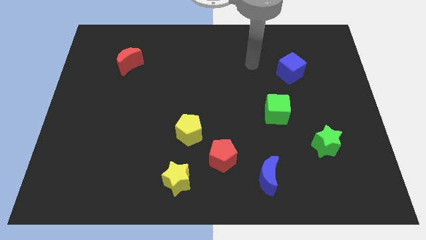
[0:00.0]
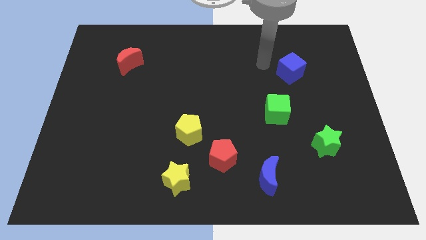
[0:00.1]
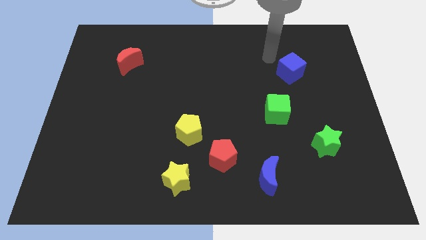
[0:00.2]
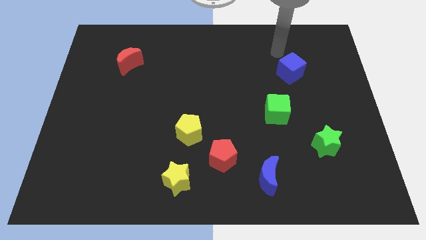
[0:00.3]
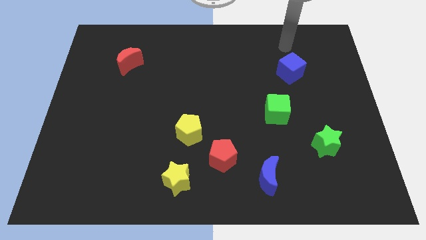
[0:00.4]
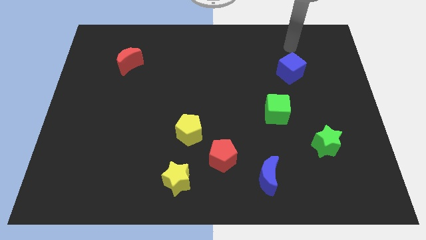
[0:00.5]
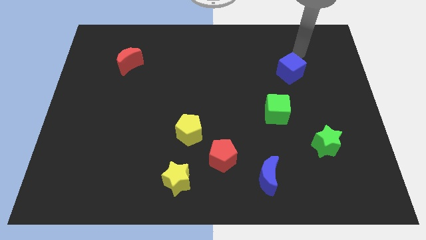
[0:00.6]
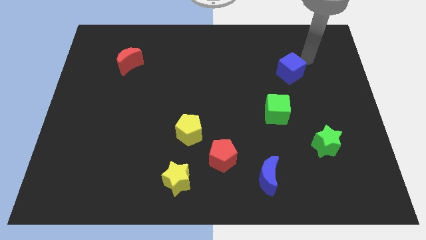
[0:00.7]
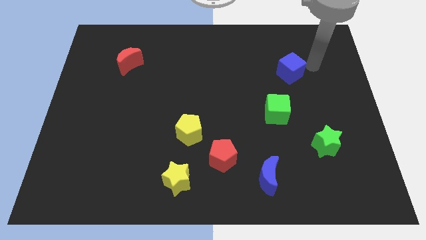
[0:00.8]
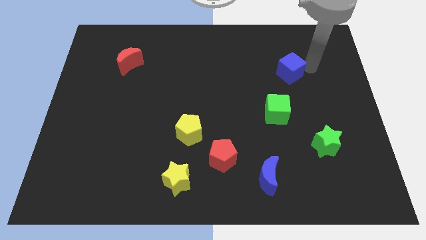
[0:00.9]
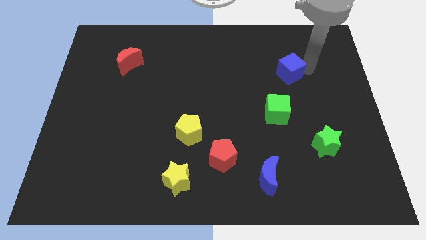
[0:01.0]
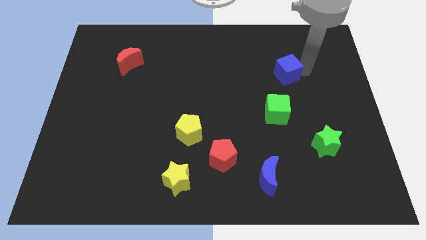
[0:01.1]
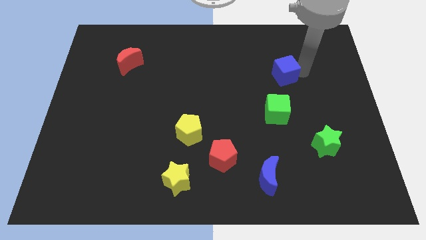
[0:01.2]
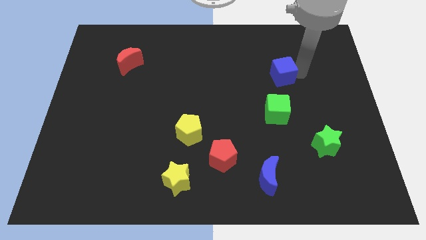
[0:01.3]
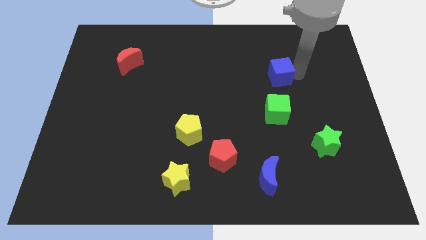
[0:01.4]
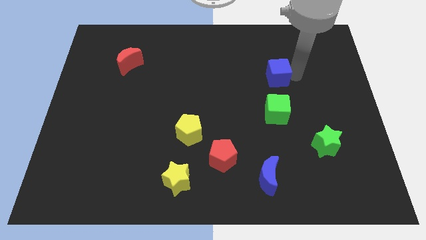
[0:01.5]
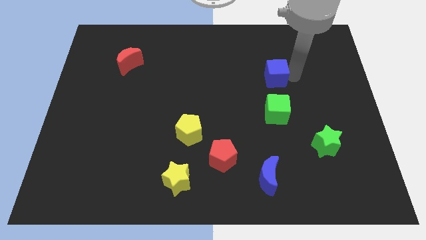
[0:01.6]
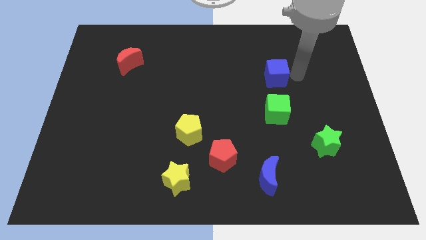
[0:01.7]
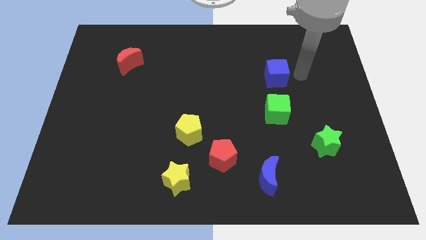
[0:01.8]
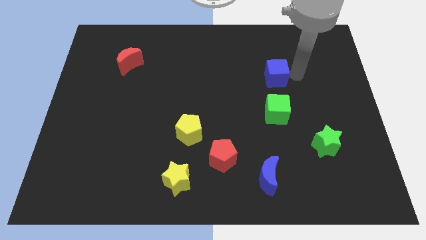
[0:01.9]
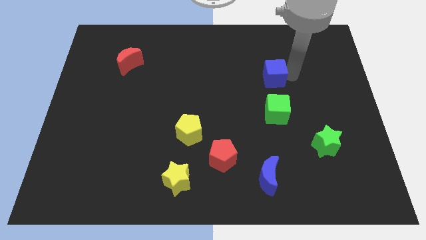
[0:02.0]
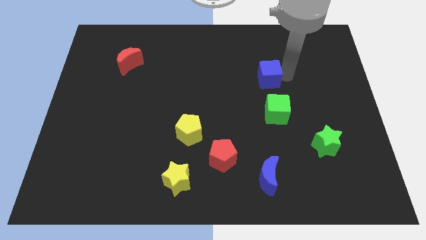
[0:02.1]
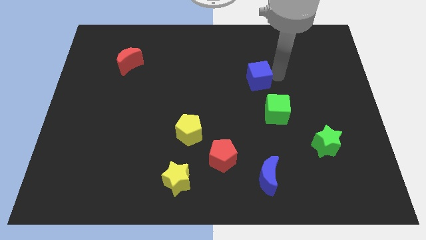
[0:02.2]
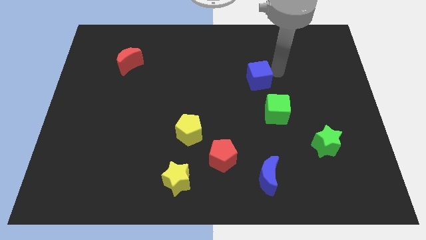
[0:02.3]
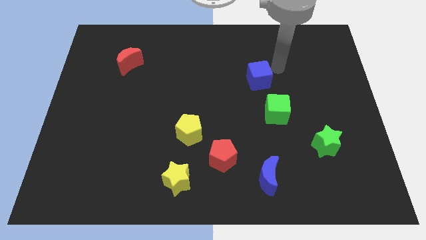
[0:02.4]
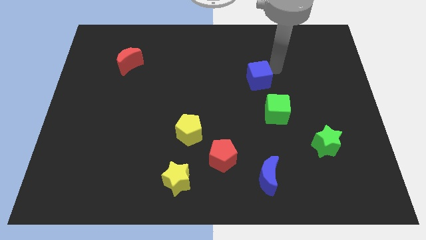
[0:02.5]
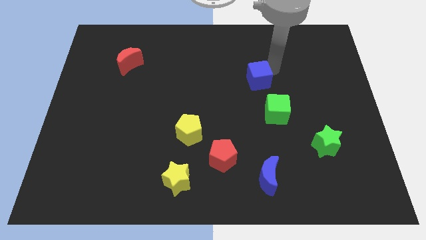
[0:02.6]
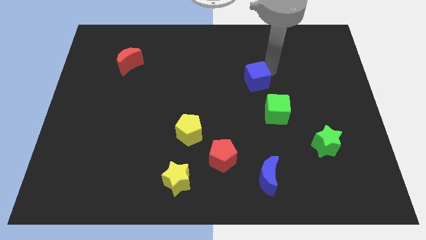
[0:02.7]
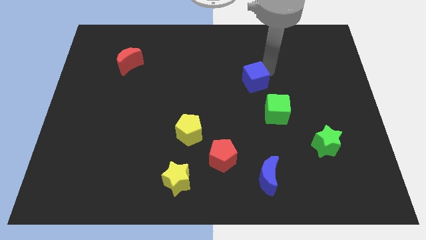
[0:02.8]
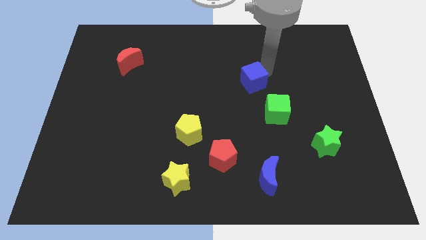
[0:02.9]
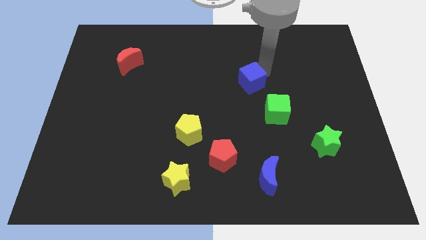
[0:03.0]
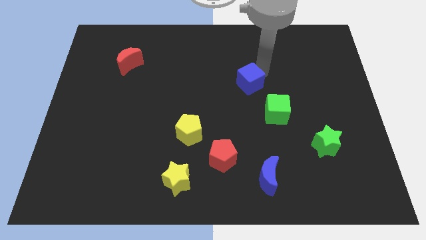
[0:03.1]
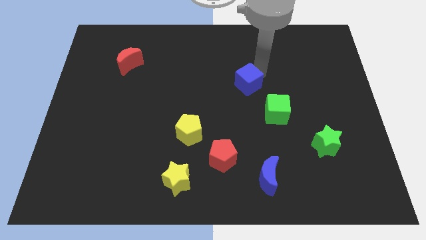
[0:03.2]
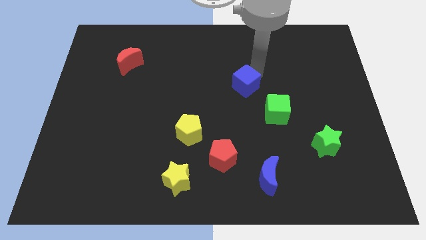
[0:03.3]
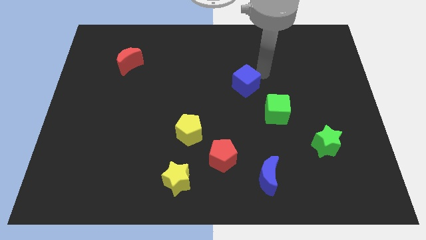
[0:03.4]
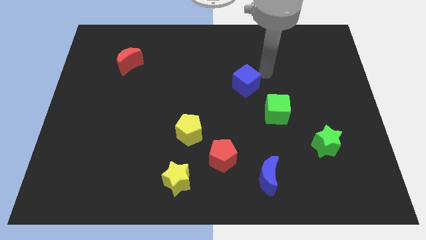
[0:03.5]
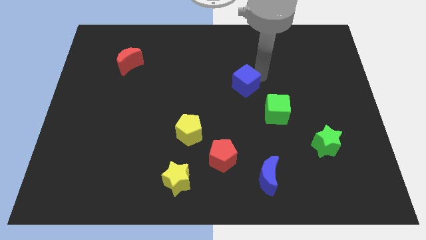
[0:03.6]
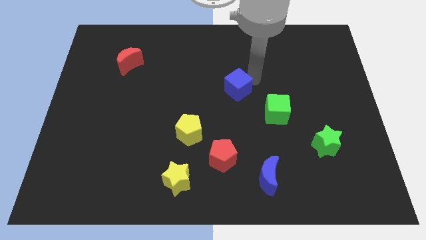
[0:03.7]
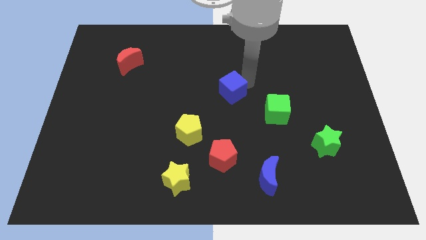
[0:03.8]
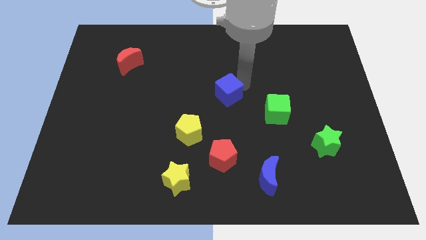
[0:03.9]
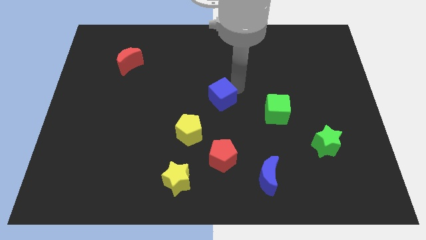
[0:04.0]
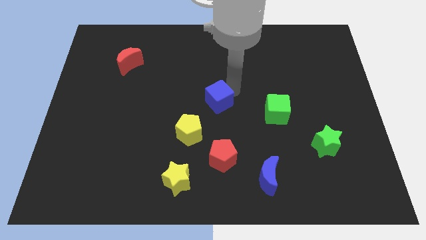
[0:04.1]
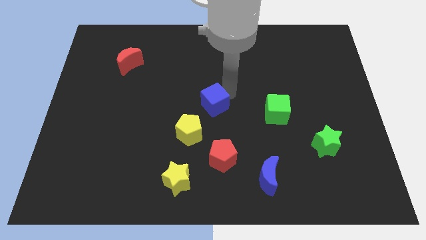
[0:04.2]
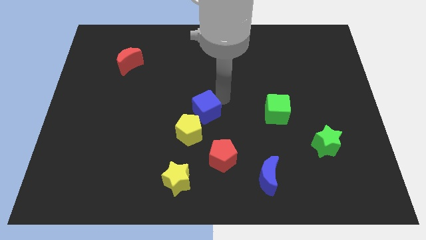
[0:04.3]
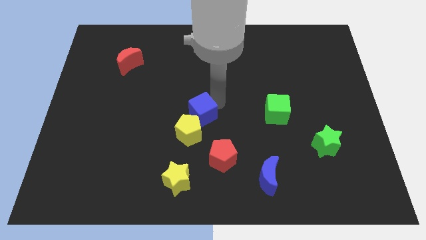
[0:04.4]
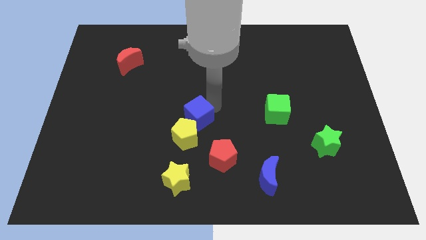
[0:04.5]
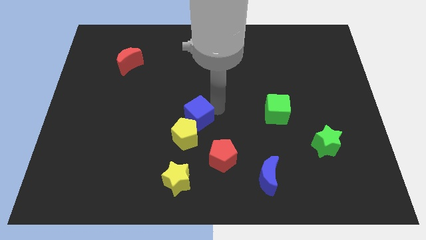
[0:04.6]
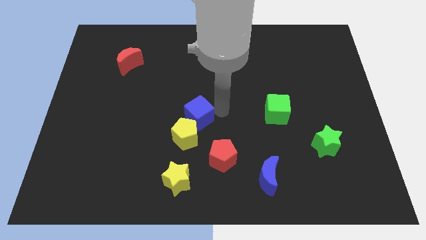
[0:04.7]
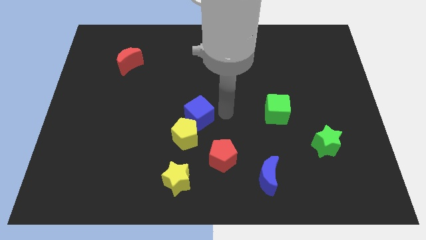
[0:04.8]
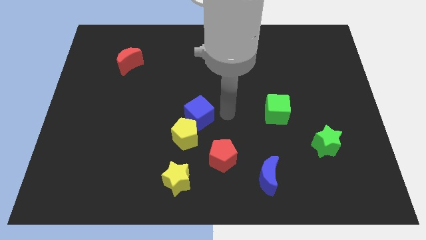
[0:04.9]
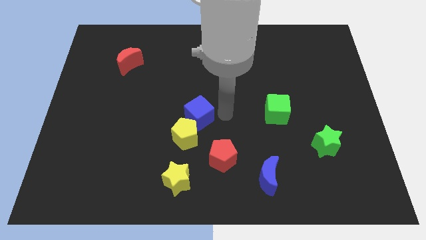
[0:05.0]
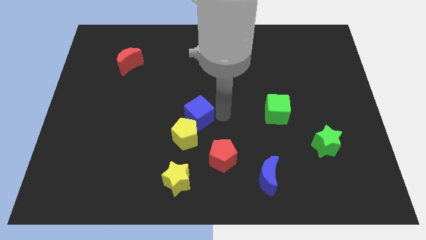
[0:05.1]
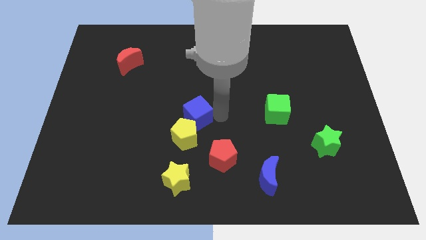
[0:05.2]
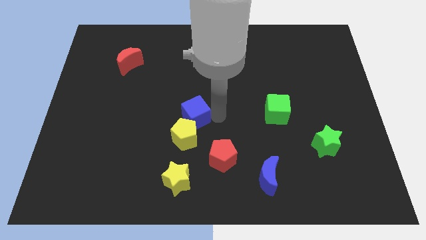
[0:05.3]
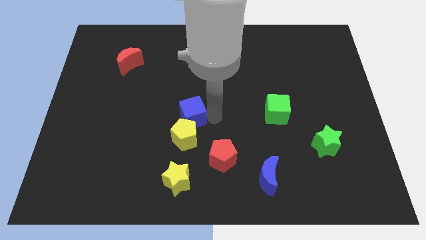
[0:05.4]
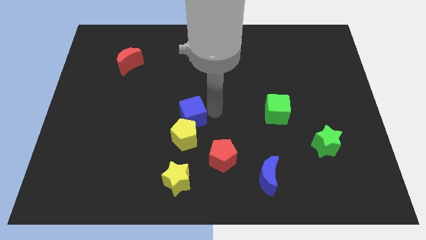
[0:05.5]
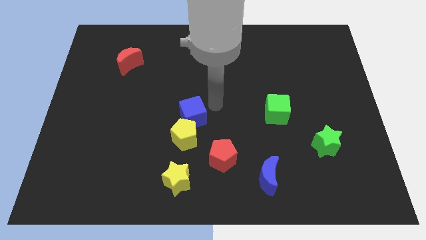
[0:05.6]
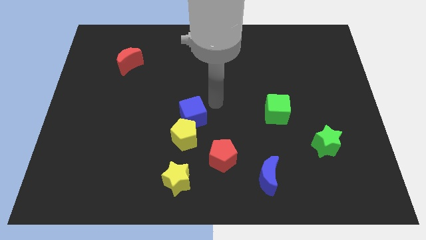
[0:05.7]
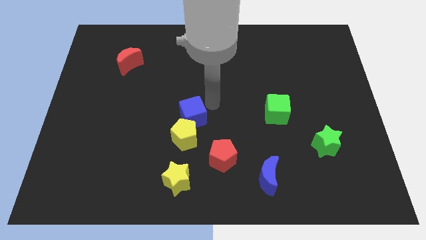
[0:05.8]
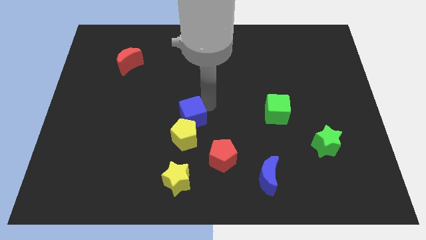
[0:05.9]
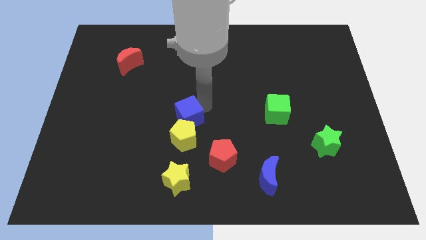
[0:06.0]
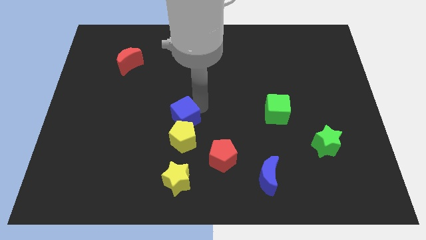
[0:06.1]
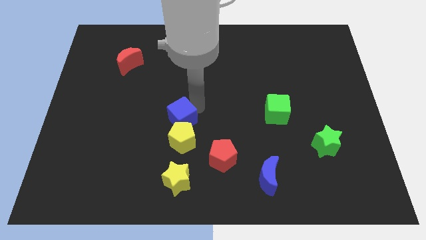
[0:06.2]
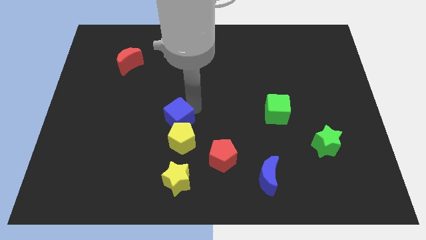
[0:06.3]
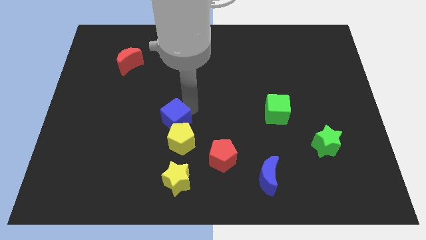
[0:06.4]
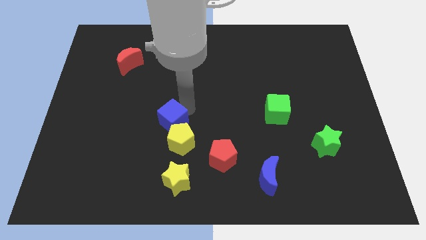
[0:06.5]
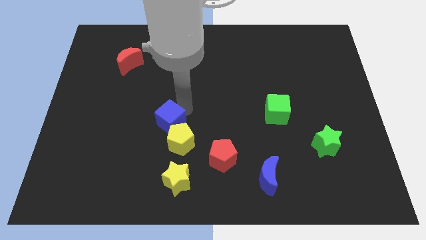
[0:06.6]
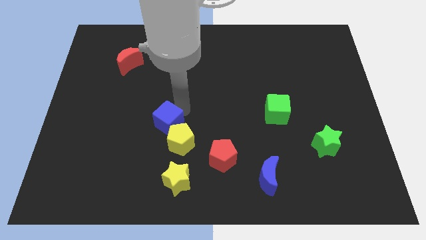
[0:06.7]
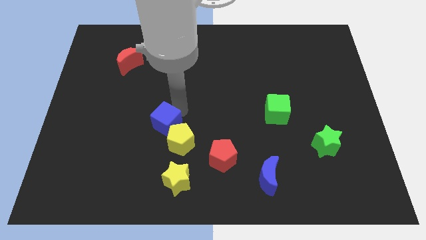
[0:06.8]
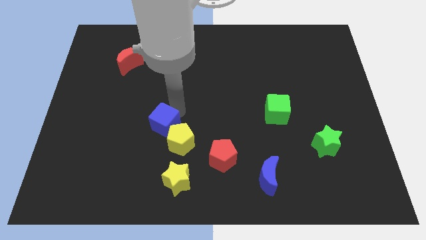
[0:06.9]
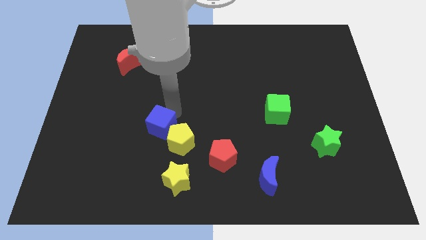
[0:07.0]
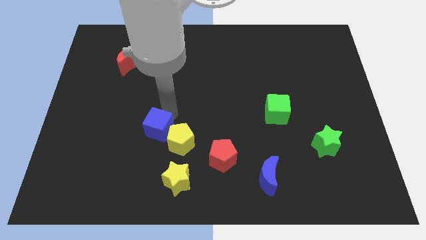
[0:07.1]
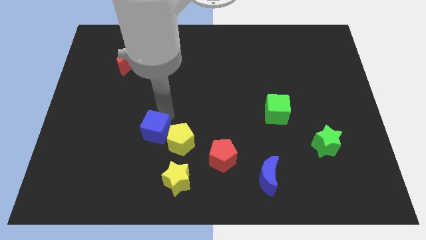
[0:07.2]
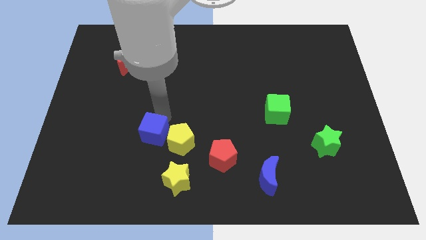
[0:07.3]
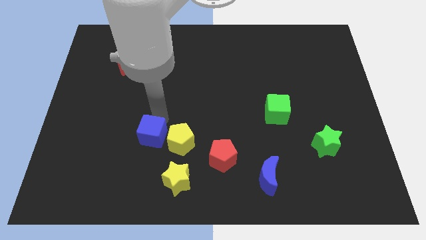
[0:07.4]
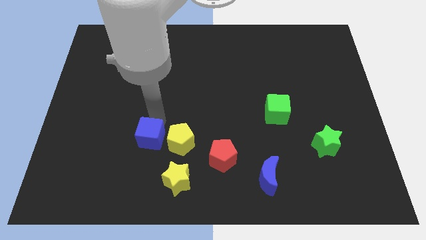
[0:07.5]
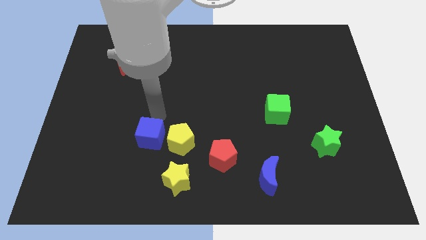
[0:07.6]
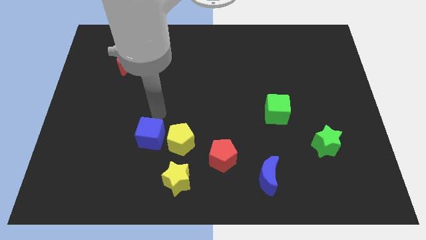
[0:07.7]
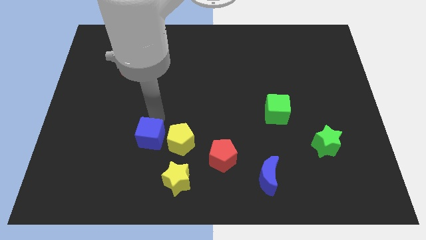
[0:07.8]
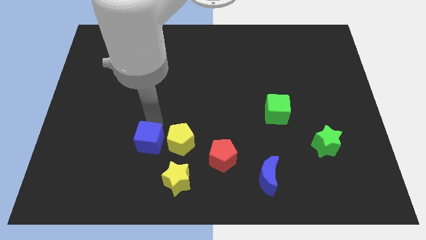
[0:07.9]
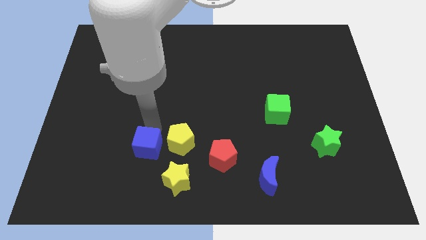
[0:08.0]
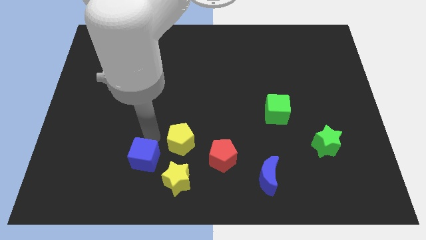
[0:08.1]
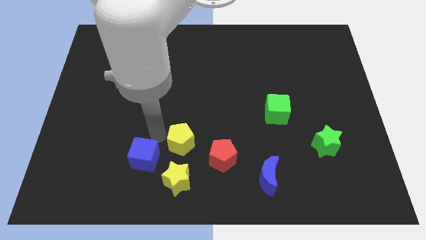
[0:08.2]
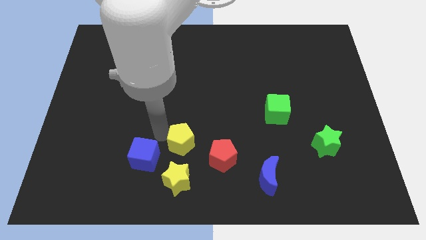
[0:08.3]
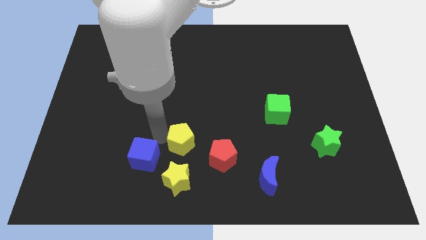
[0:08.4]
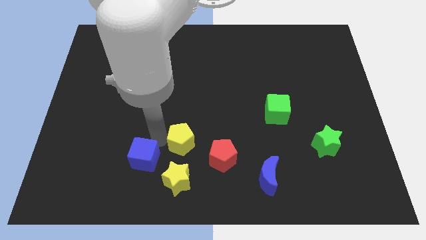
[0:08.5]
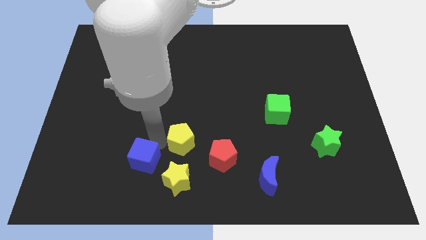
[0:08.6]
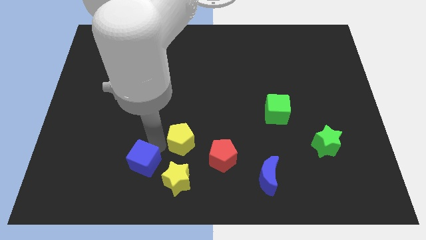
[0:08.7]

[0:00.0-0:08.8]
push the blue cube to the left side of the yellow star

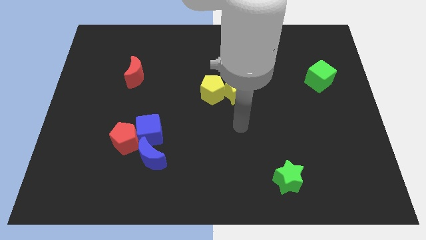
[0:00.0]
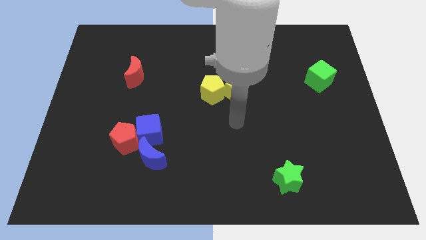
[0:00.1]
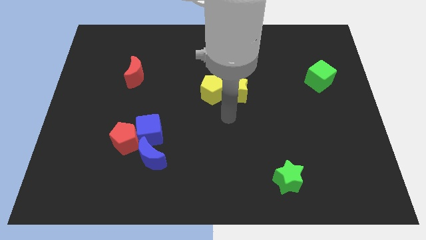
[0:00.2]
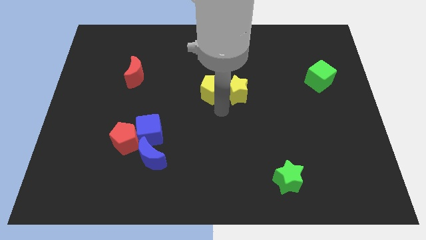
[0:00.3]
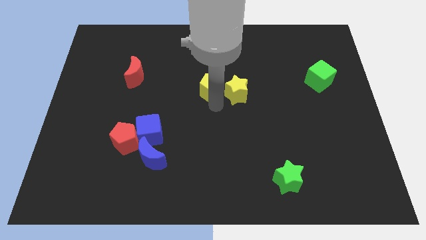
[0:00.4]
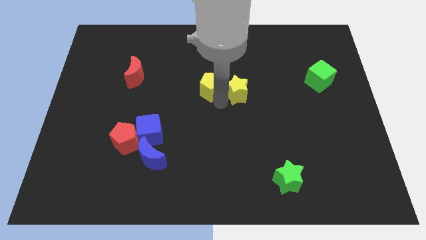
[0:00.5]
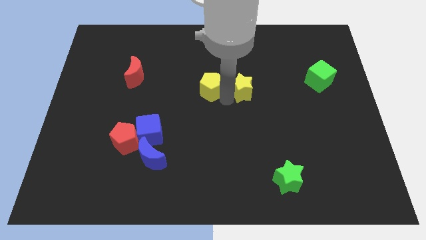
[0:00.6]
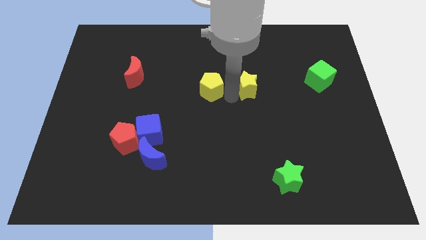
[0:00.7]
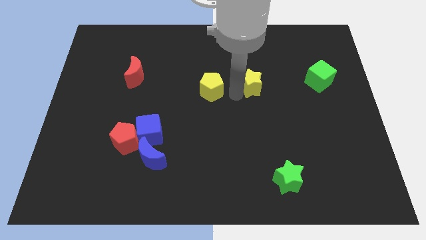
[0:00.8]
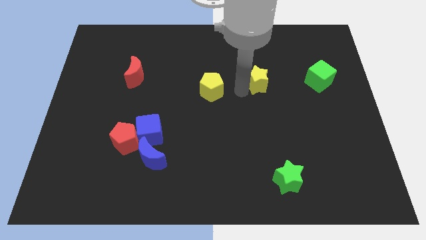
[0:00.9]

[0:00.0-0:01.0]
slide the yellow star to the left side of the green cube
